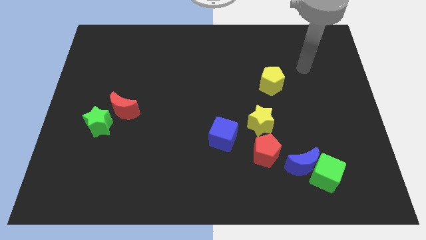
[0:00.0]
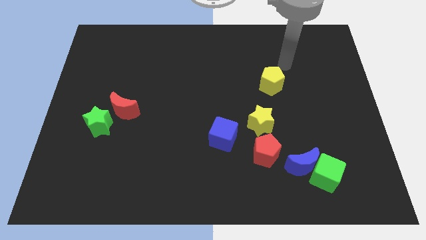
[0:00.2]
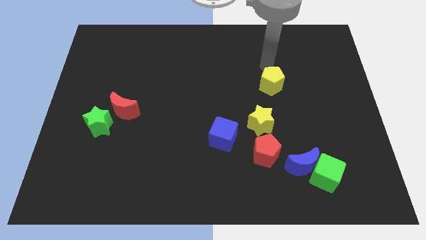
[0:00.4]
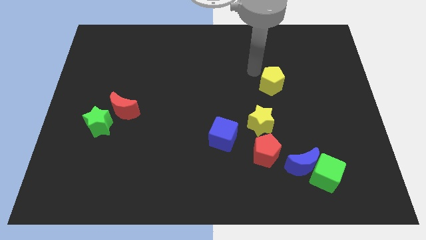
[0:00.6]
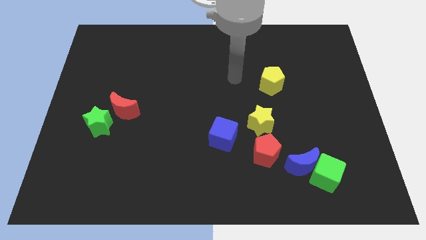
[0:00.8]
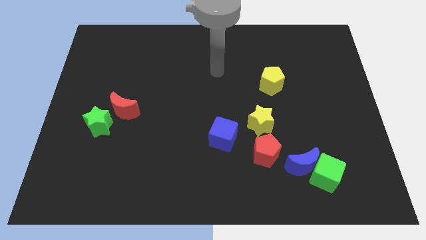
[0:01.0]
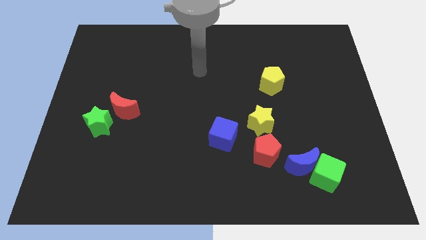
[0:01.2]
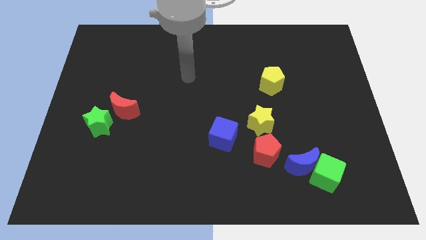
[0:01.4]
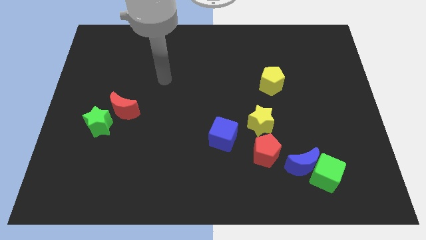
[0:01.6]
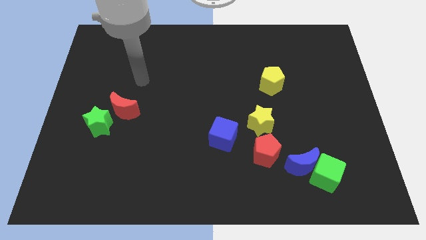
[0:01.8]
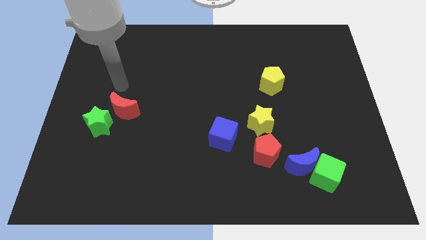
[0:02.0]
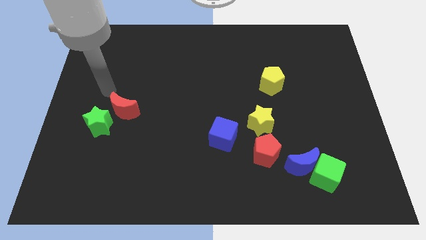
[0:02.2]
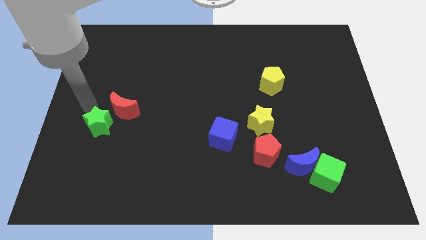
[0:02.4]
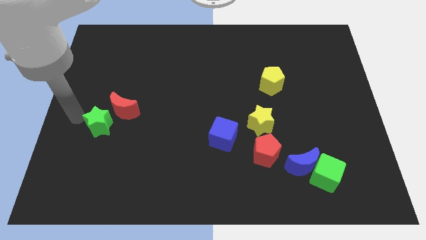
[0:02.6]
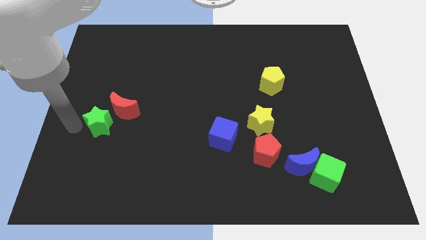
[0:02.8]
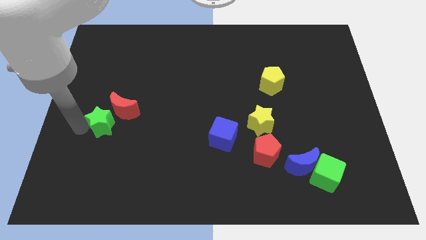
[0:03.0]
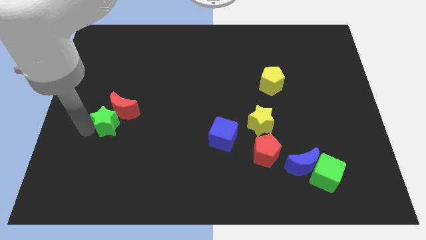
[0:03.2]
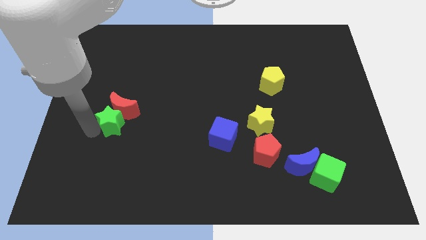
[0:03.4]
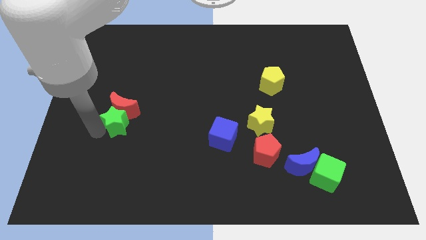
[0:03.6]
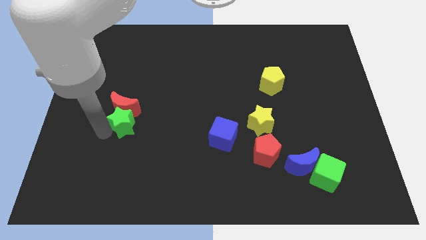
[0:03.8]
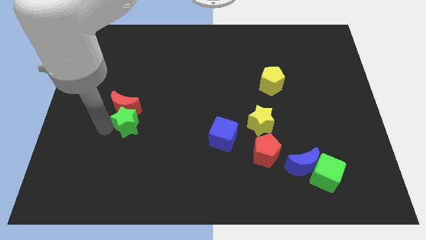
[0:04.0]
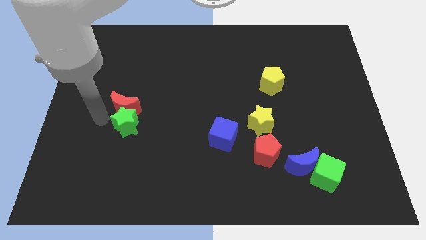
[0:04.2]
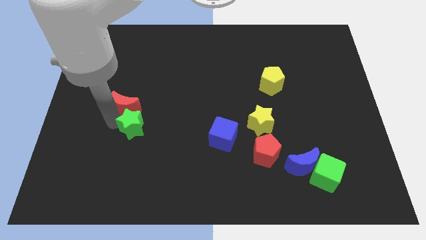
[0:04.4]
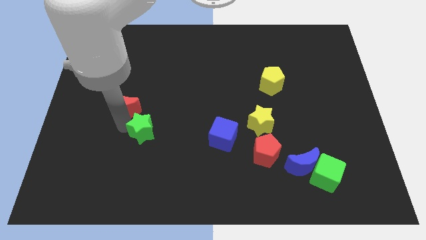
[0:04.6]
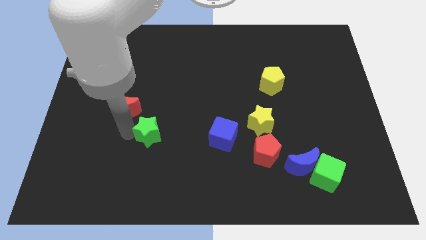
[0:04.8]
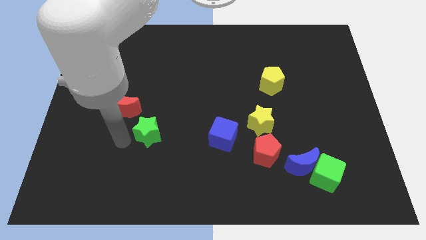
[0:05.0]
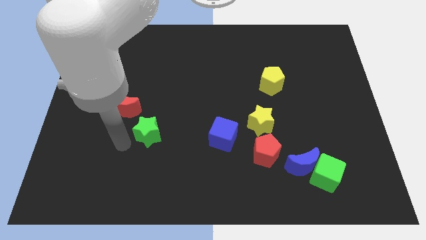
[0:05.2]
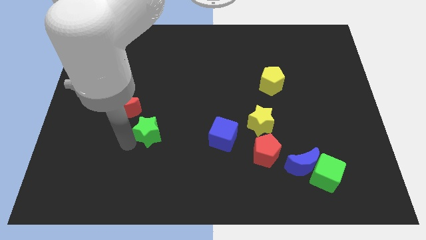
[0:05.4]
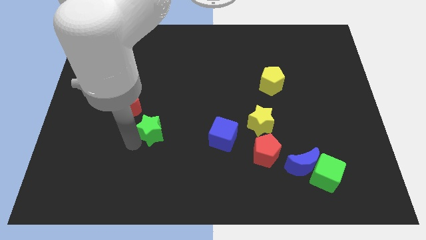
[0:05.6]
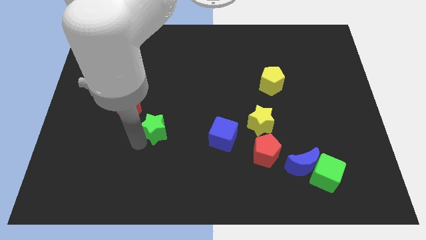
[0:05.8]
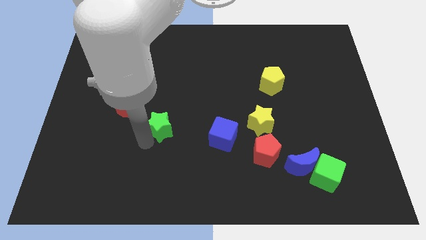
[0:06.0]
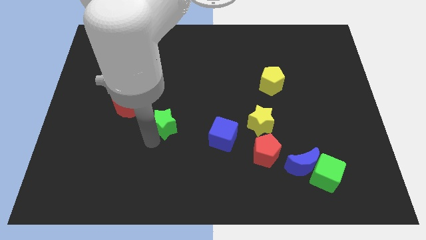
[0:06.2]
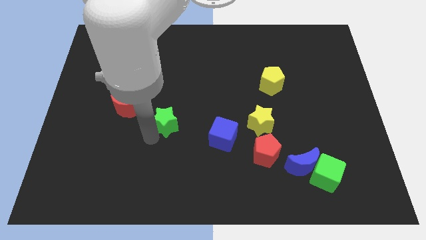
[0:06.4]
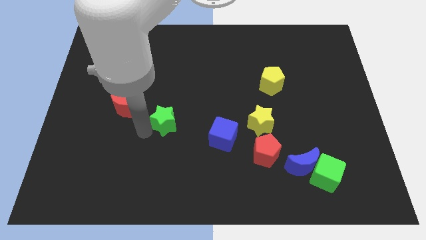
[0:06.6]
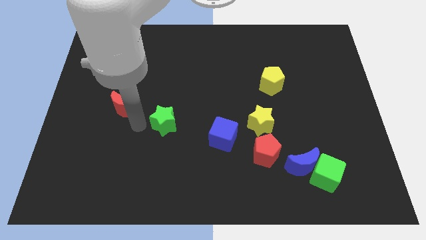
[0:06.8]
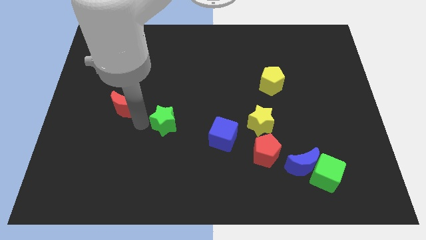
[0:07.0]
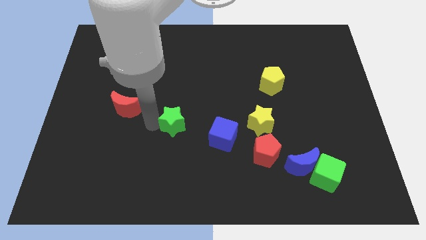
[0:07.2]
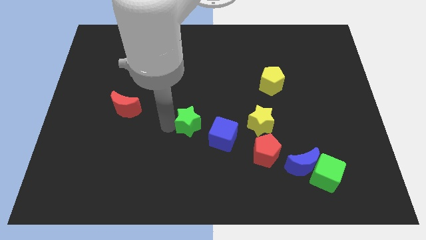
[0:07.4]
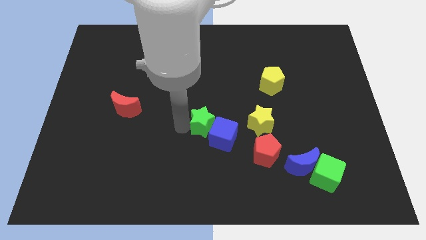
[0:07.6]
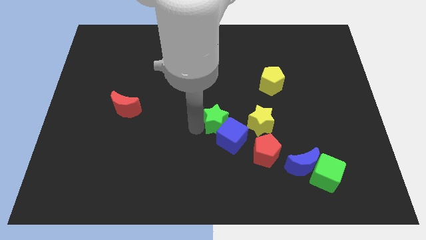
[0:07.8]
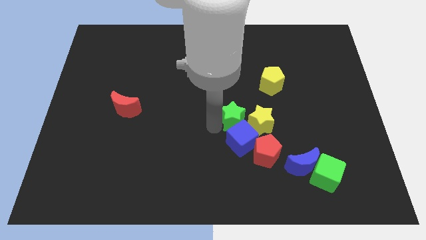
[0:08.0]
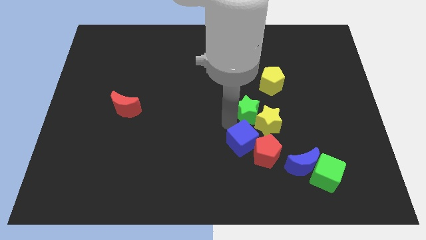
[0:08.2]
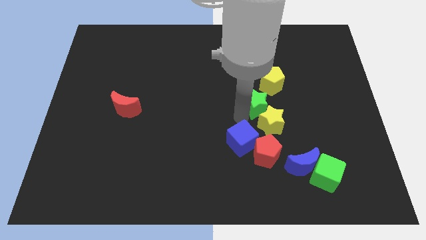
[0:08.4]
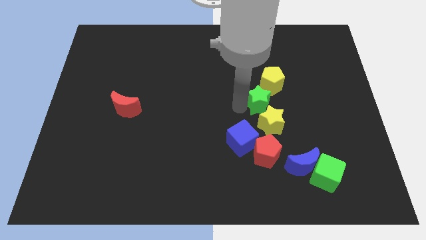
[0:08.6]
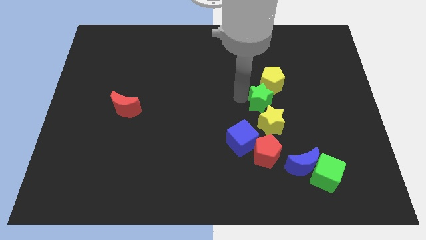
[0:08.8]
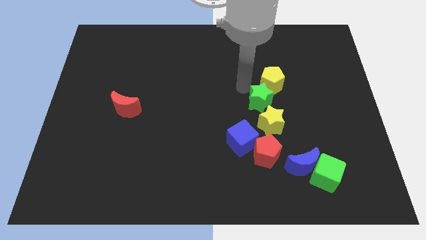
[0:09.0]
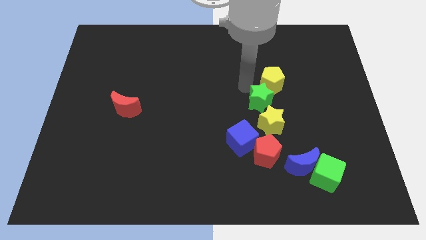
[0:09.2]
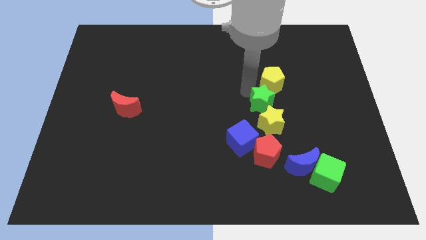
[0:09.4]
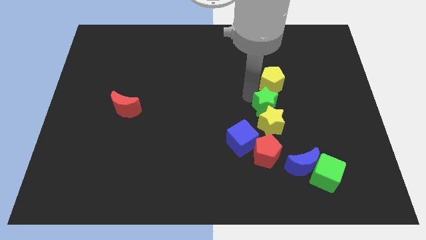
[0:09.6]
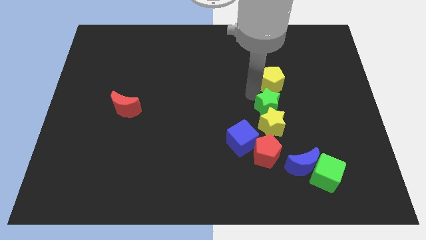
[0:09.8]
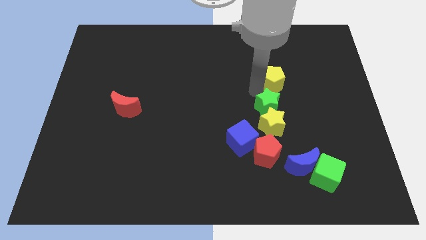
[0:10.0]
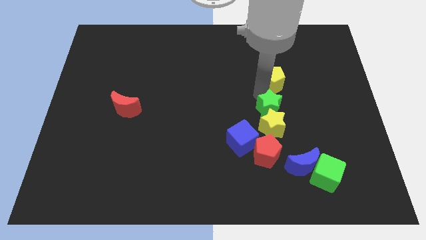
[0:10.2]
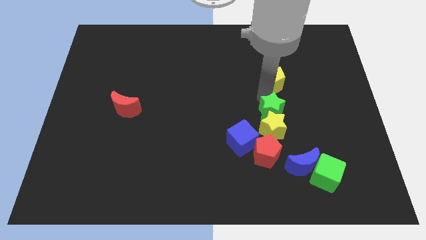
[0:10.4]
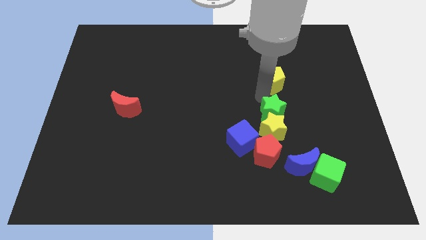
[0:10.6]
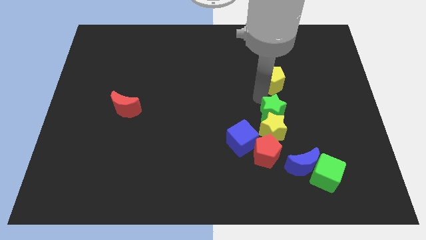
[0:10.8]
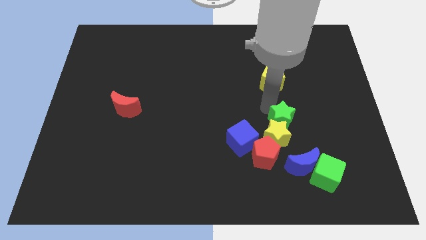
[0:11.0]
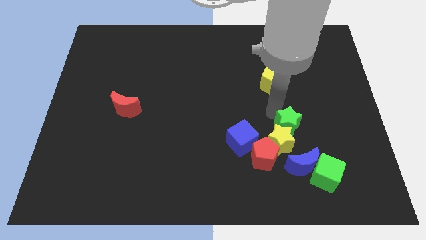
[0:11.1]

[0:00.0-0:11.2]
move the green star just right of the blue cube

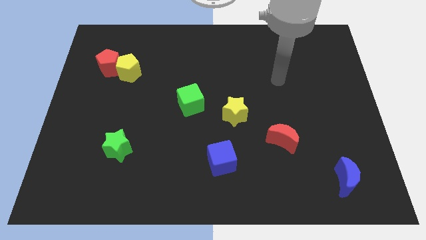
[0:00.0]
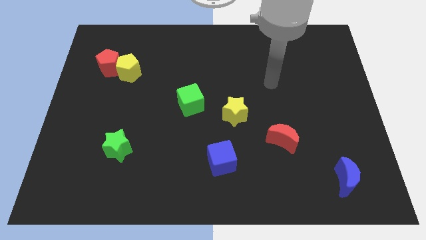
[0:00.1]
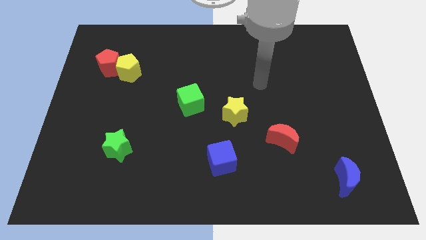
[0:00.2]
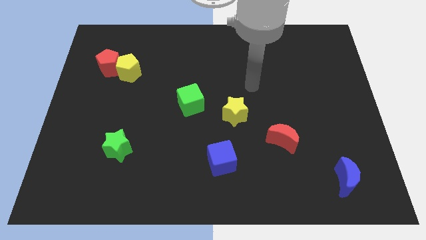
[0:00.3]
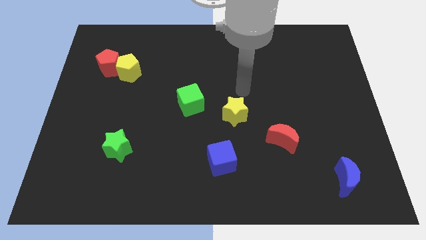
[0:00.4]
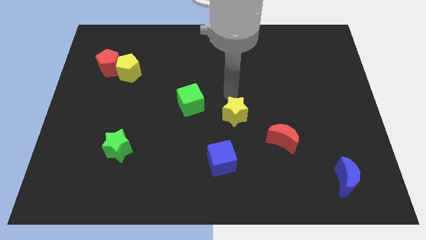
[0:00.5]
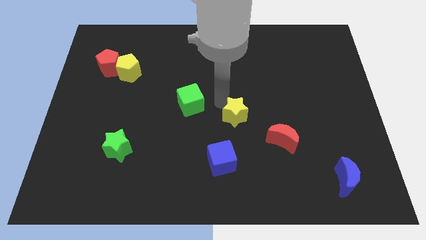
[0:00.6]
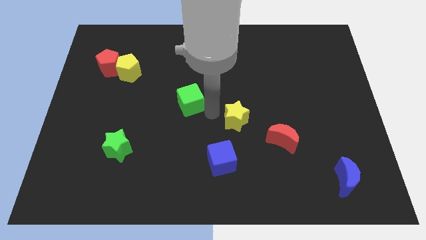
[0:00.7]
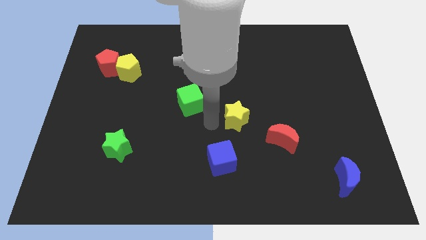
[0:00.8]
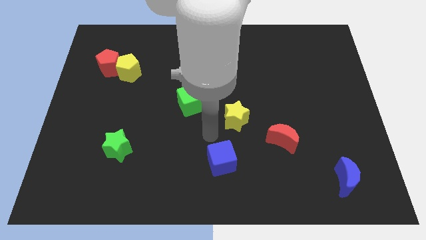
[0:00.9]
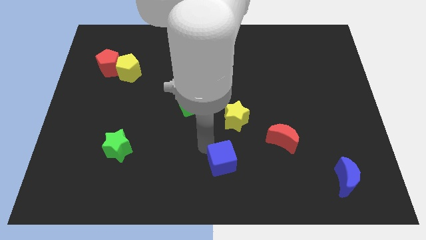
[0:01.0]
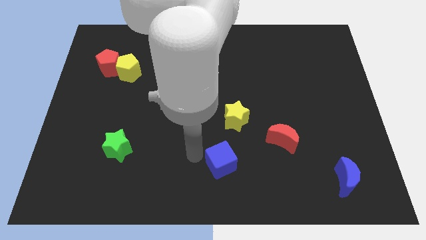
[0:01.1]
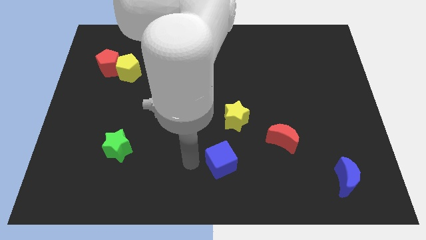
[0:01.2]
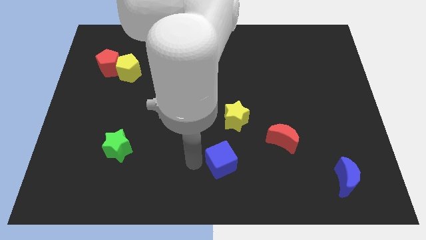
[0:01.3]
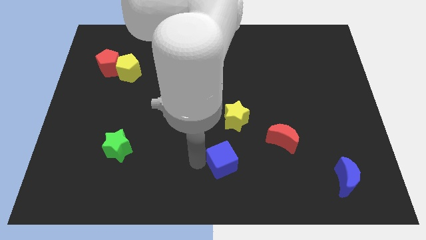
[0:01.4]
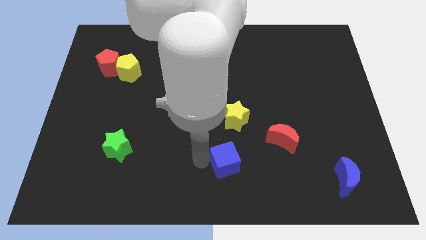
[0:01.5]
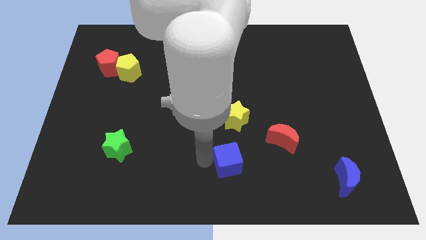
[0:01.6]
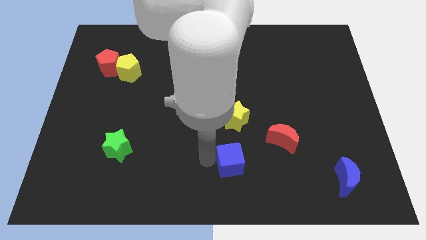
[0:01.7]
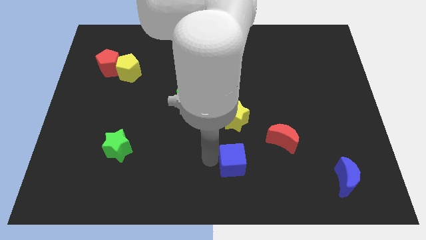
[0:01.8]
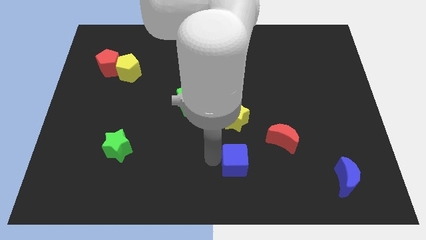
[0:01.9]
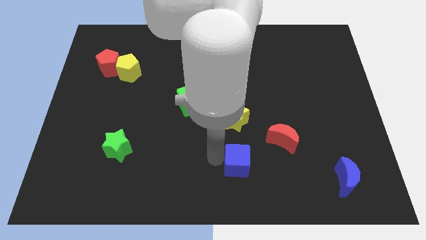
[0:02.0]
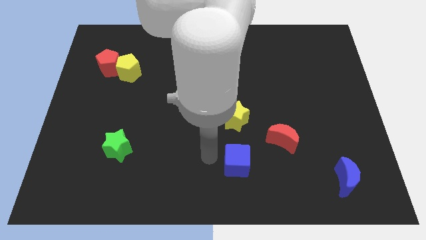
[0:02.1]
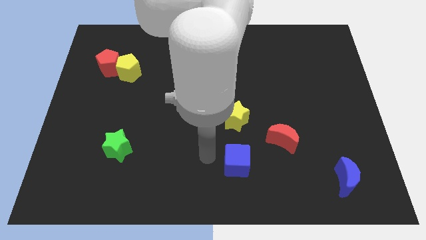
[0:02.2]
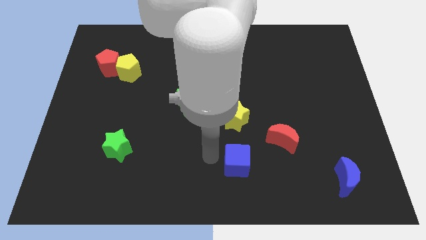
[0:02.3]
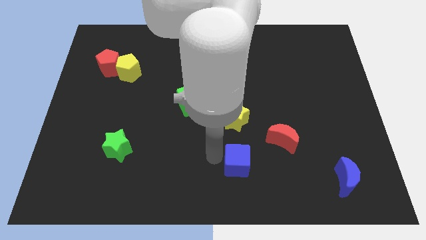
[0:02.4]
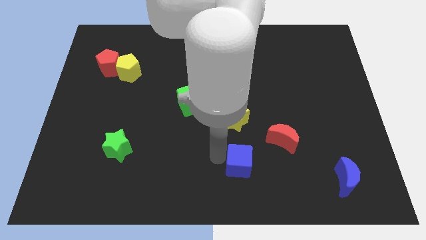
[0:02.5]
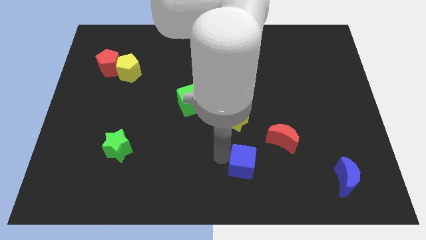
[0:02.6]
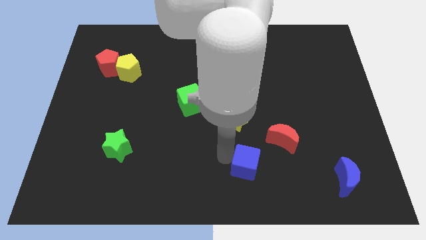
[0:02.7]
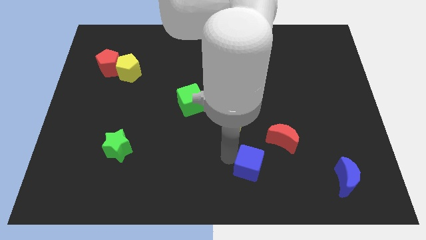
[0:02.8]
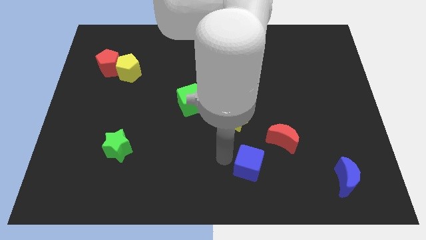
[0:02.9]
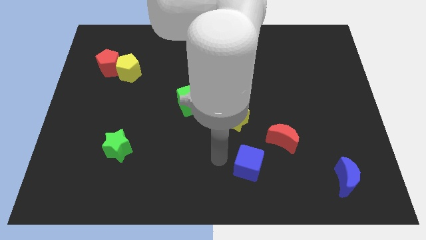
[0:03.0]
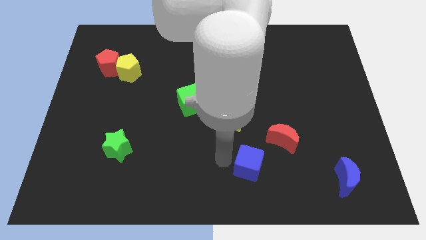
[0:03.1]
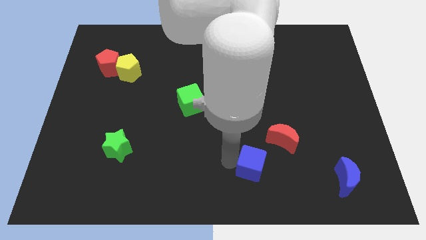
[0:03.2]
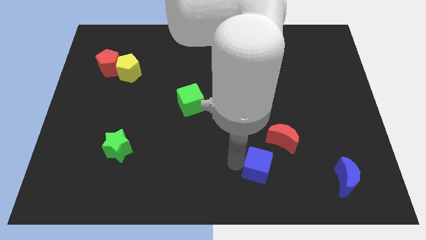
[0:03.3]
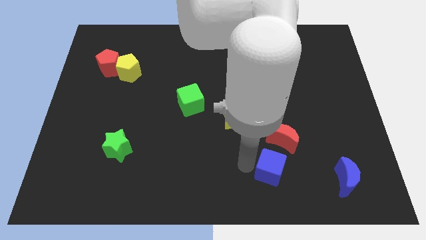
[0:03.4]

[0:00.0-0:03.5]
push the blue cube left of the blue moon
